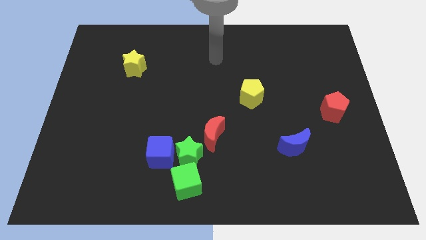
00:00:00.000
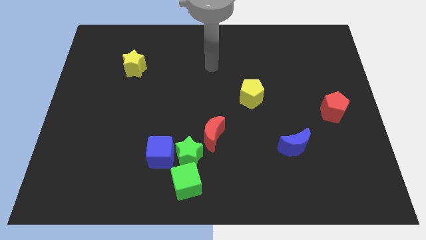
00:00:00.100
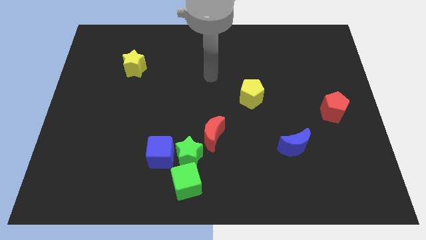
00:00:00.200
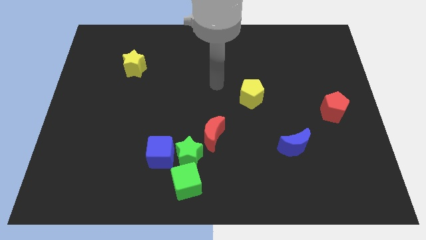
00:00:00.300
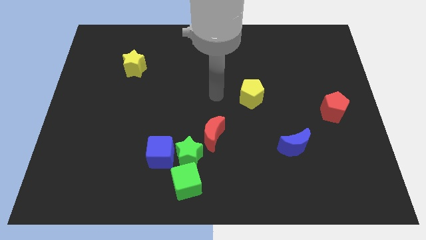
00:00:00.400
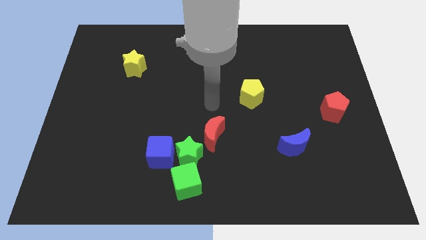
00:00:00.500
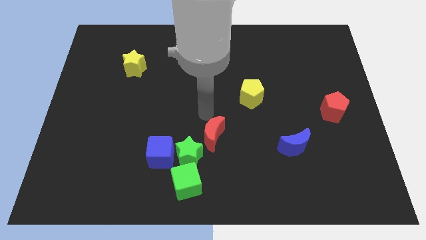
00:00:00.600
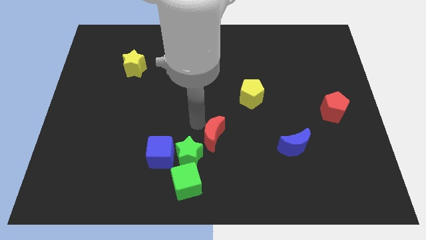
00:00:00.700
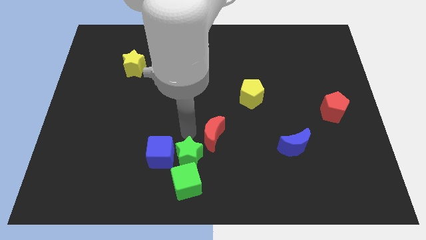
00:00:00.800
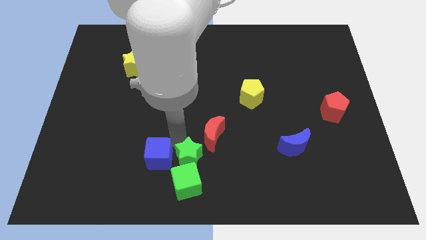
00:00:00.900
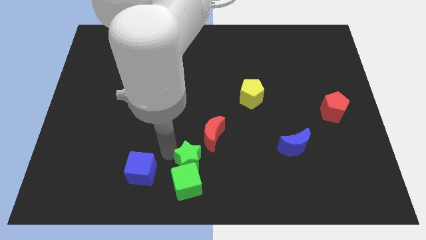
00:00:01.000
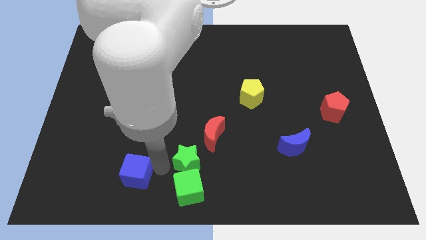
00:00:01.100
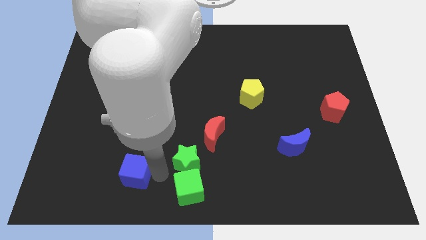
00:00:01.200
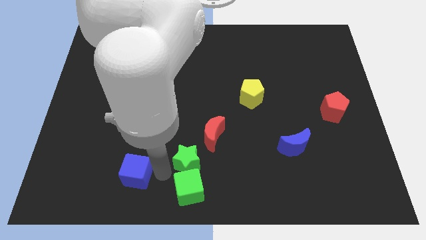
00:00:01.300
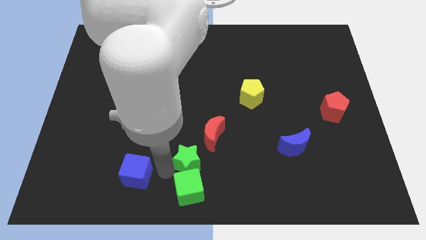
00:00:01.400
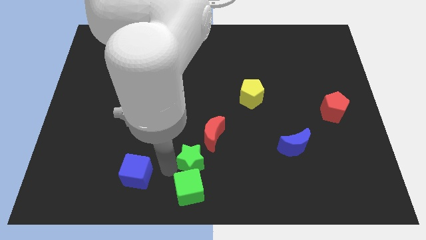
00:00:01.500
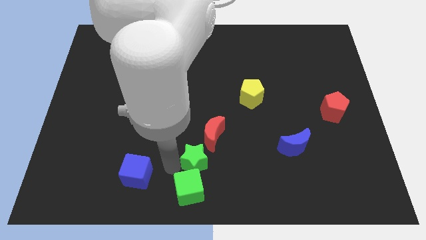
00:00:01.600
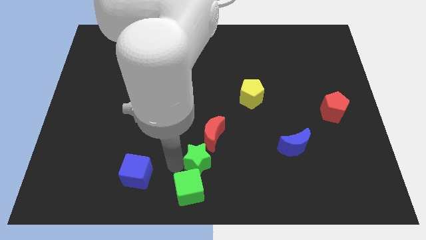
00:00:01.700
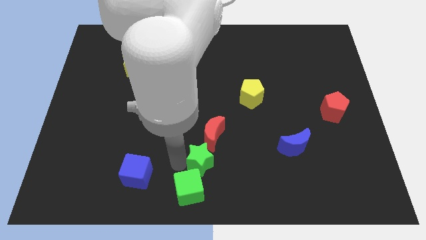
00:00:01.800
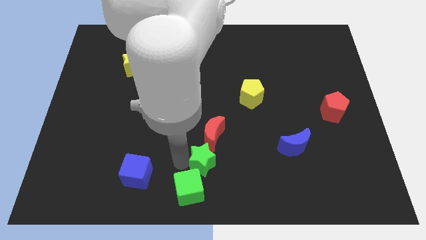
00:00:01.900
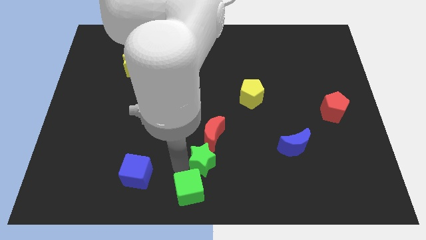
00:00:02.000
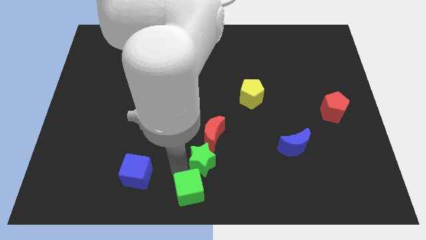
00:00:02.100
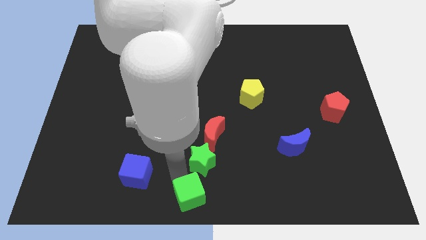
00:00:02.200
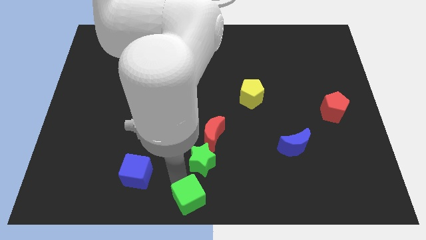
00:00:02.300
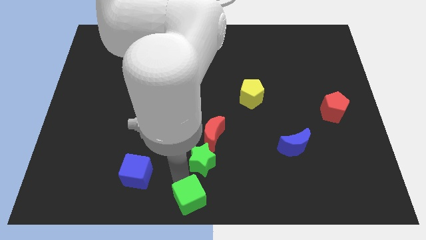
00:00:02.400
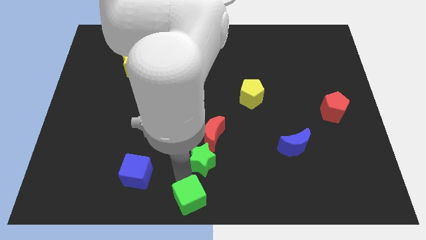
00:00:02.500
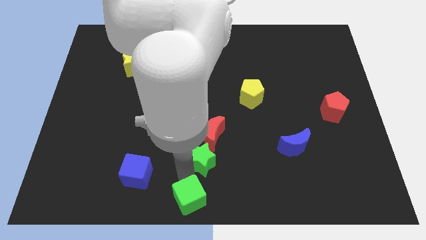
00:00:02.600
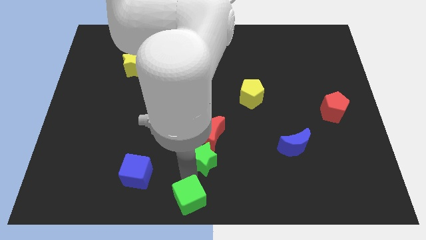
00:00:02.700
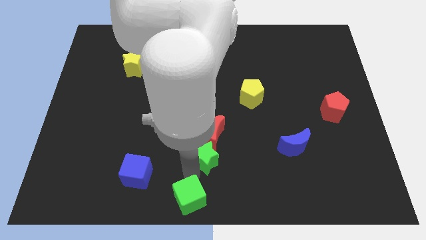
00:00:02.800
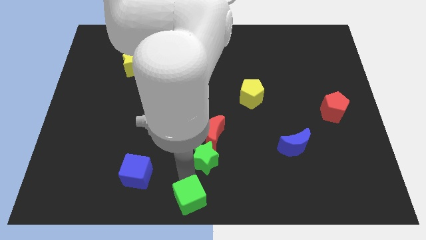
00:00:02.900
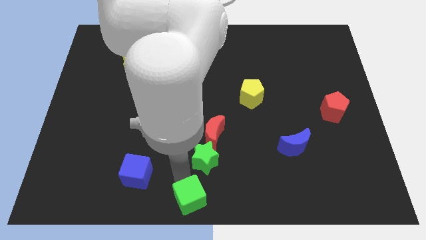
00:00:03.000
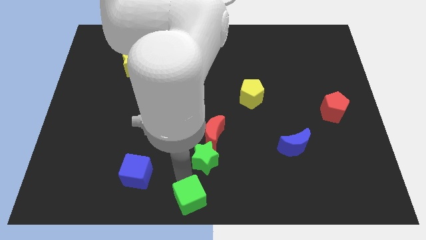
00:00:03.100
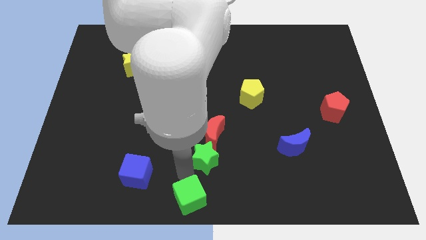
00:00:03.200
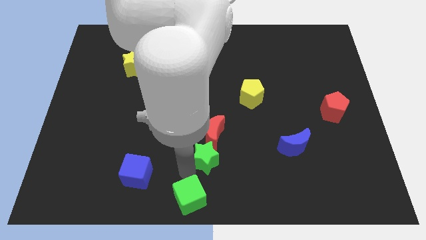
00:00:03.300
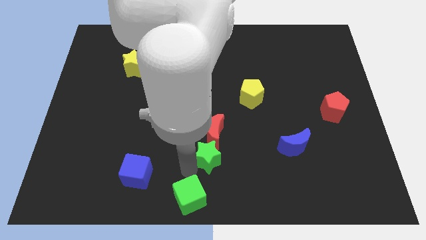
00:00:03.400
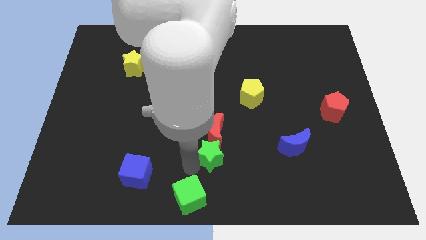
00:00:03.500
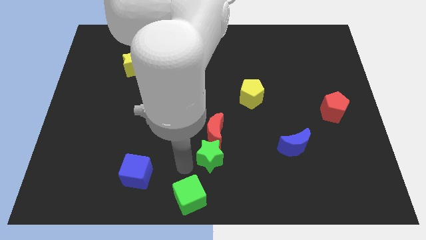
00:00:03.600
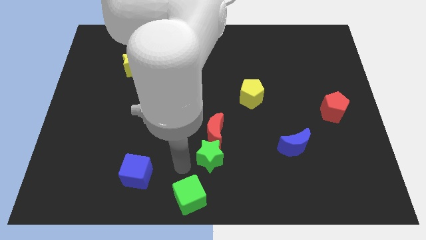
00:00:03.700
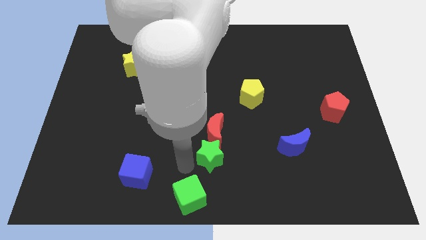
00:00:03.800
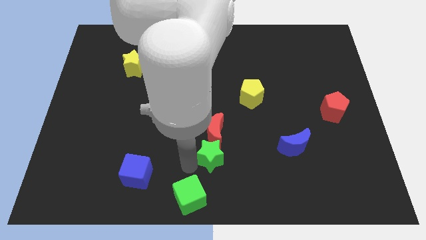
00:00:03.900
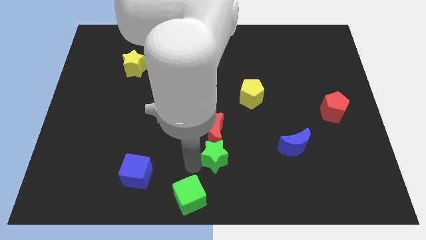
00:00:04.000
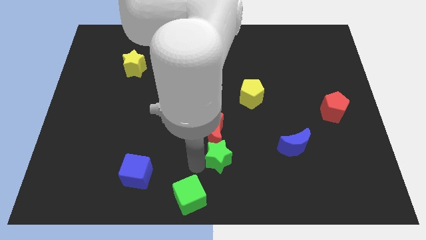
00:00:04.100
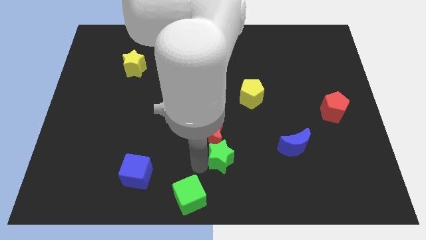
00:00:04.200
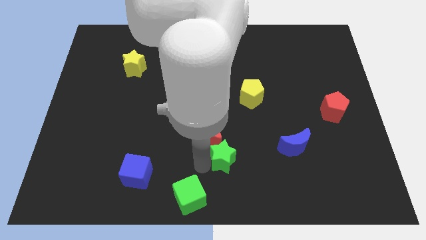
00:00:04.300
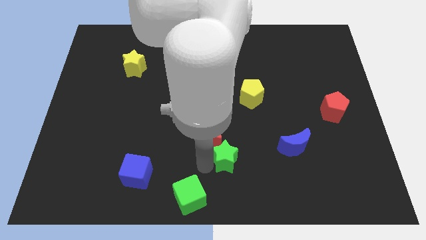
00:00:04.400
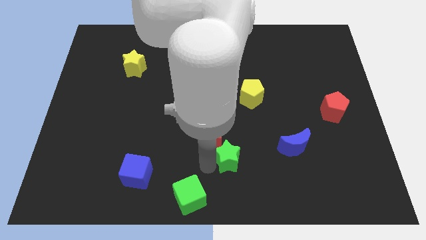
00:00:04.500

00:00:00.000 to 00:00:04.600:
pull the green star apart from the clump

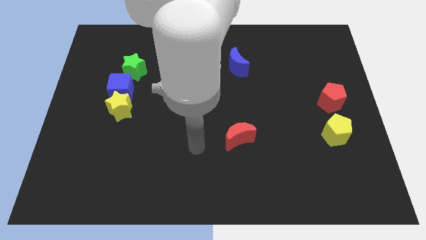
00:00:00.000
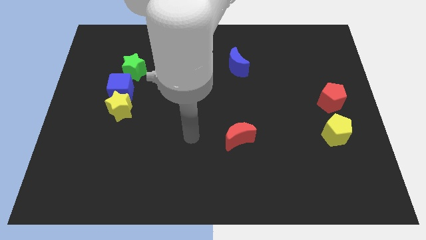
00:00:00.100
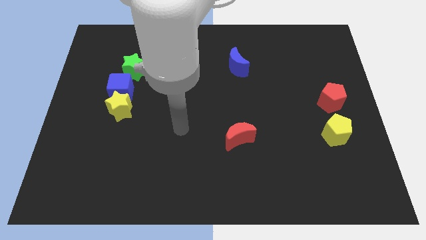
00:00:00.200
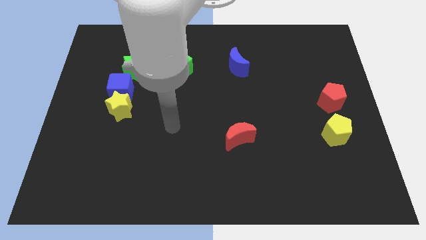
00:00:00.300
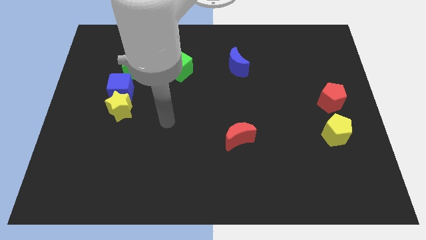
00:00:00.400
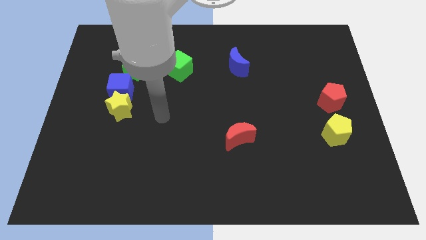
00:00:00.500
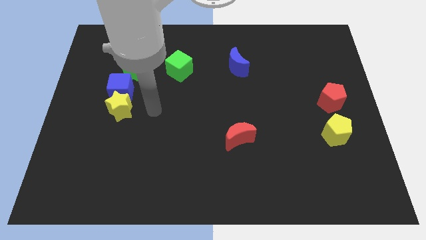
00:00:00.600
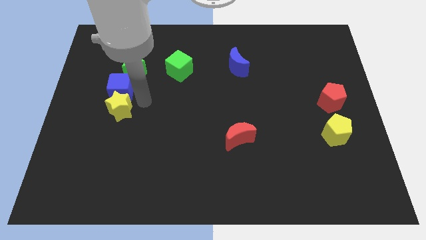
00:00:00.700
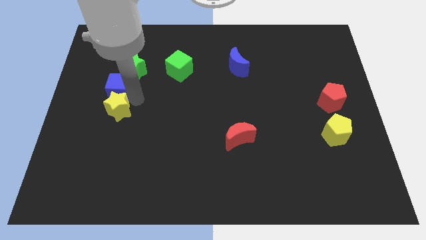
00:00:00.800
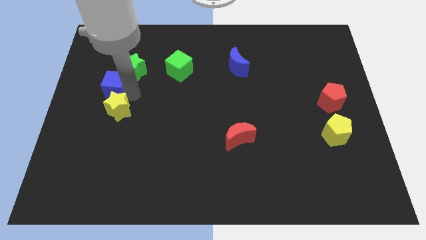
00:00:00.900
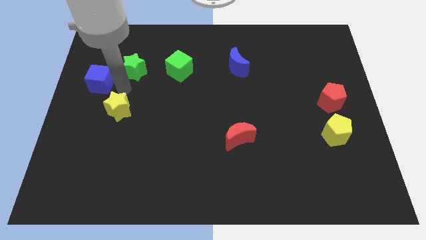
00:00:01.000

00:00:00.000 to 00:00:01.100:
move the yellow star away from the blue cube

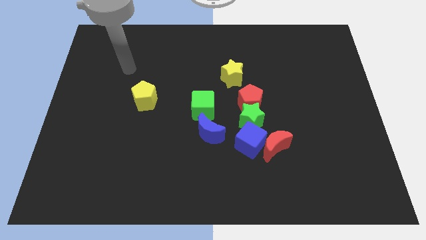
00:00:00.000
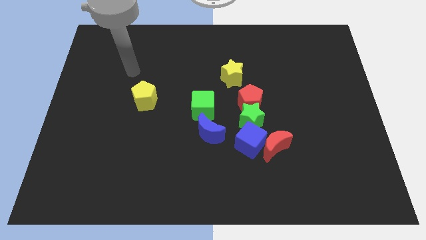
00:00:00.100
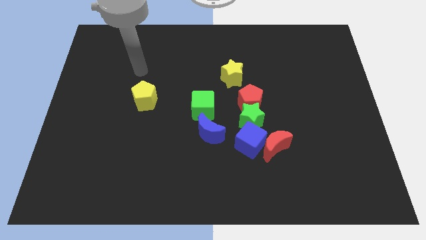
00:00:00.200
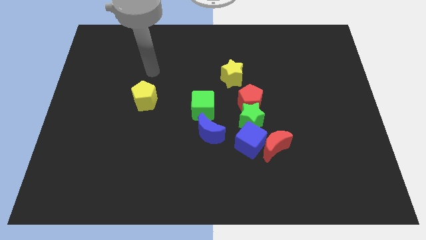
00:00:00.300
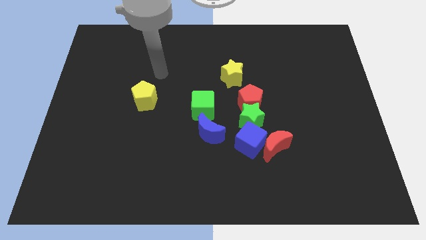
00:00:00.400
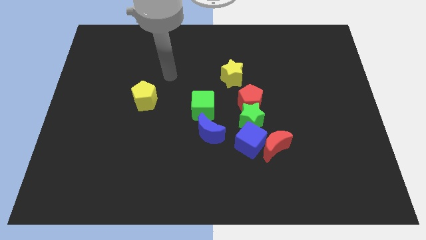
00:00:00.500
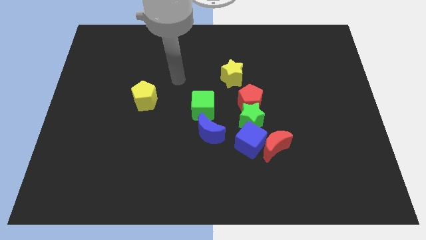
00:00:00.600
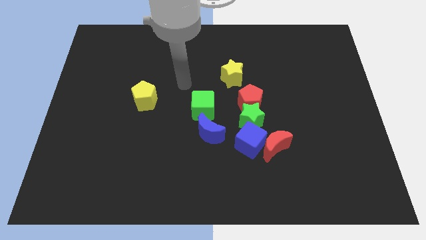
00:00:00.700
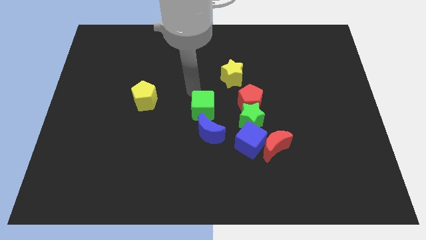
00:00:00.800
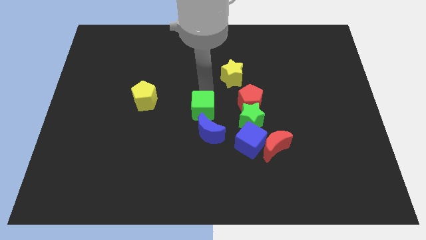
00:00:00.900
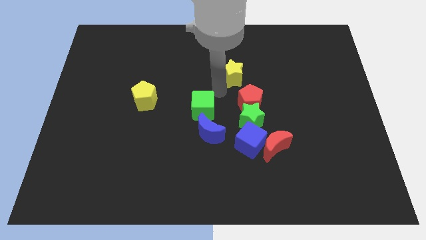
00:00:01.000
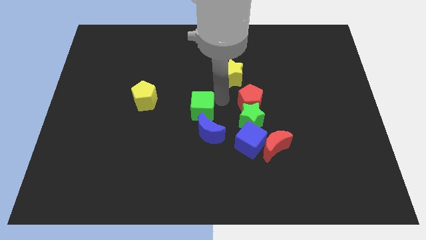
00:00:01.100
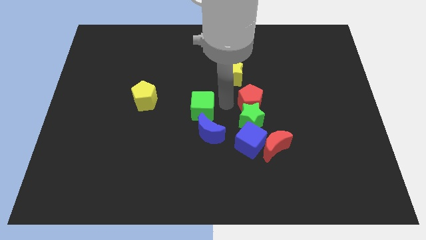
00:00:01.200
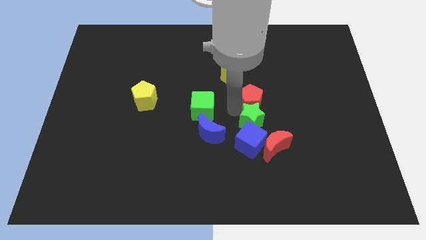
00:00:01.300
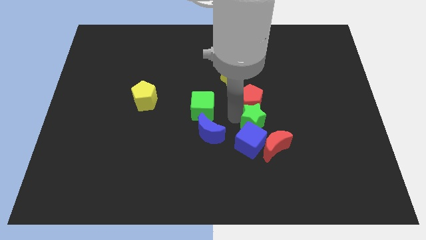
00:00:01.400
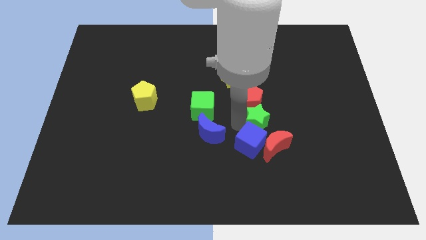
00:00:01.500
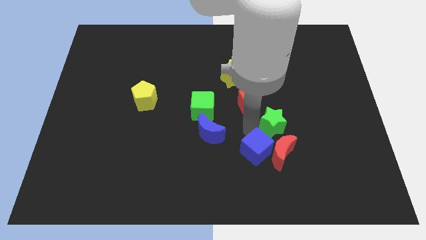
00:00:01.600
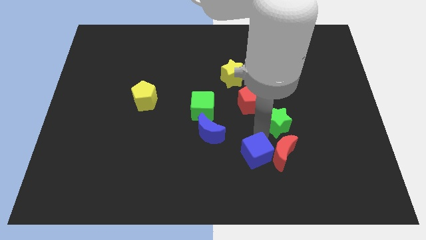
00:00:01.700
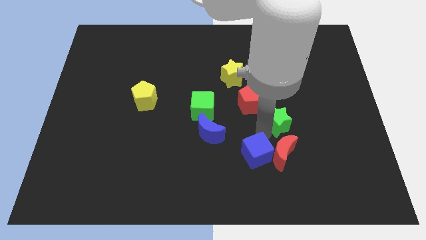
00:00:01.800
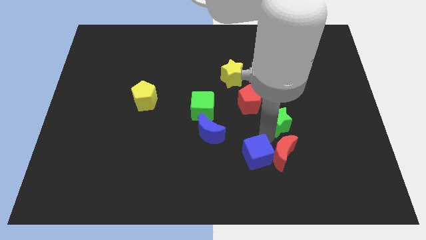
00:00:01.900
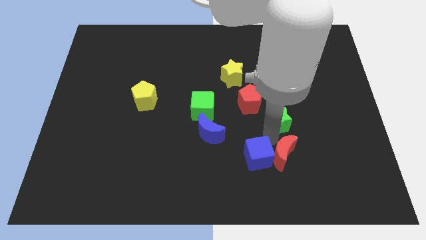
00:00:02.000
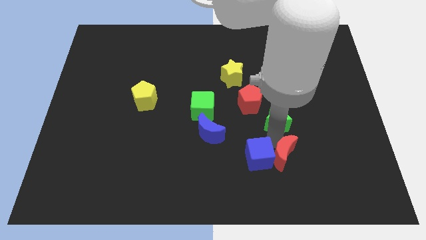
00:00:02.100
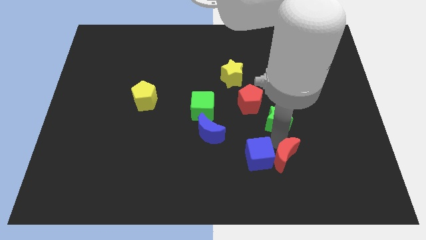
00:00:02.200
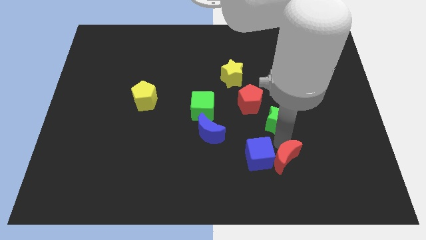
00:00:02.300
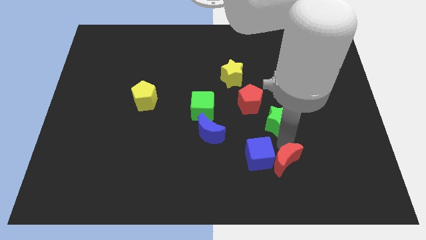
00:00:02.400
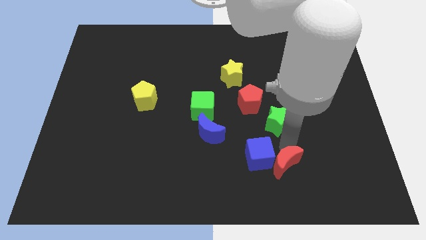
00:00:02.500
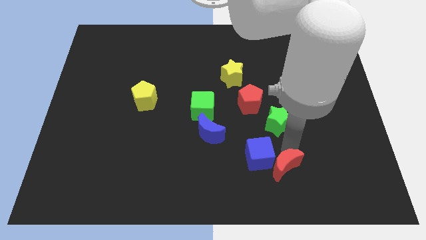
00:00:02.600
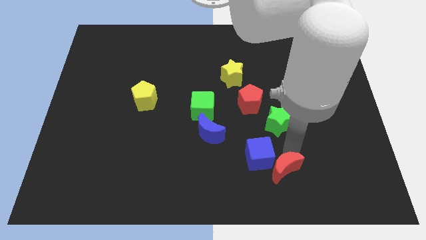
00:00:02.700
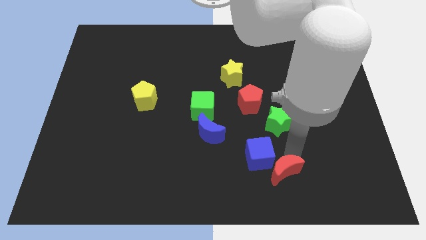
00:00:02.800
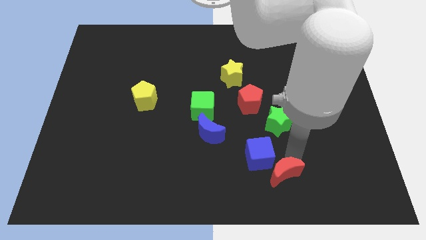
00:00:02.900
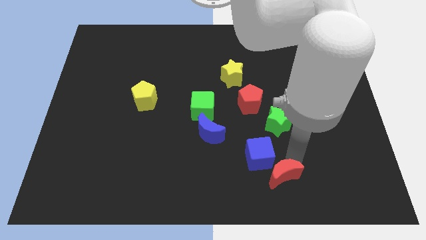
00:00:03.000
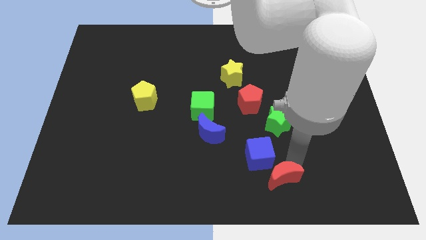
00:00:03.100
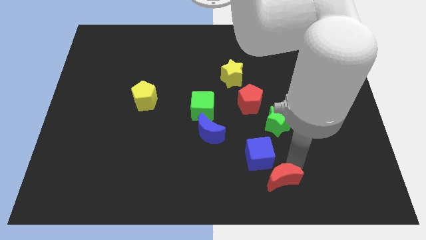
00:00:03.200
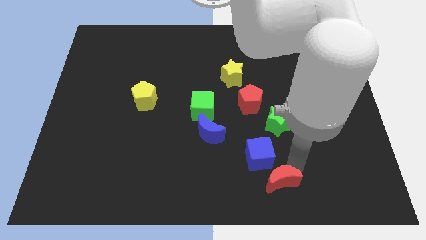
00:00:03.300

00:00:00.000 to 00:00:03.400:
separate the red moon from the blue cube and green star

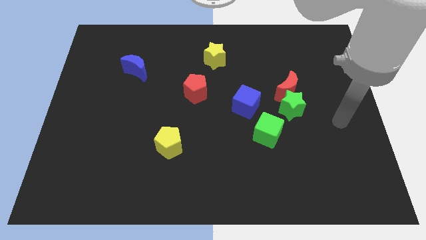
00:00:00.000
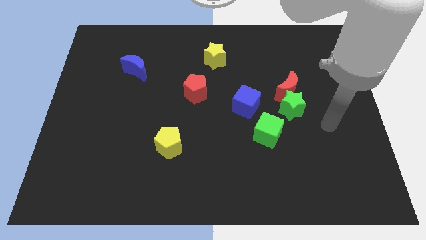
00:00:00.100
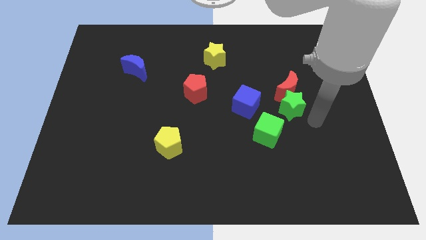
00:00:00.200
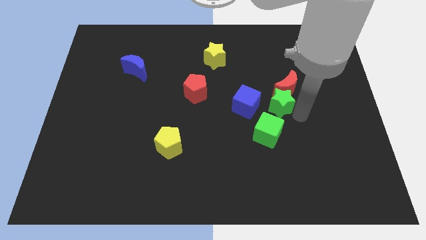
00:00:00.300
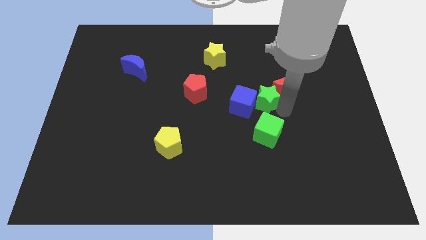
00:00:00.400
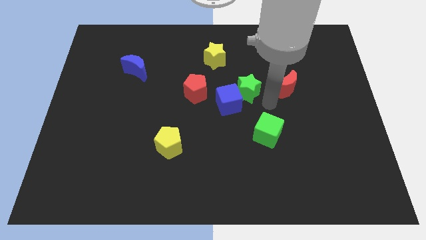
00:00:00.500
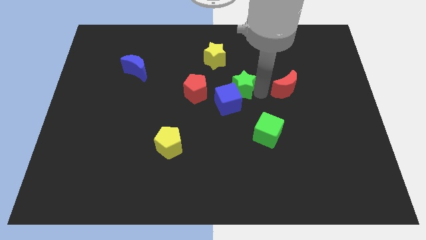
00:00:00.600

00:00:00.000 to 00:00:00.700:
pull the red moon apart from the green star
